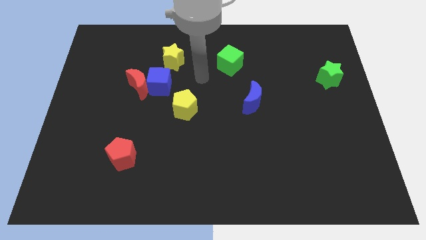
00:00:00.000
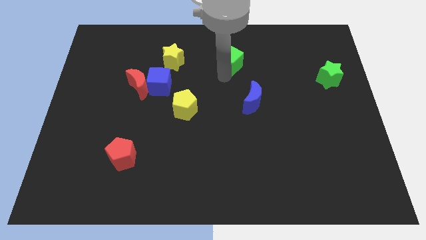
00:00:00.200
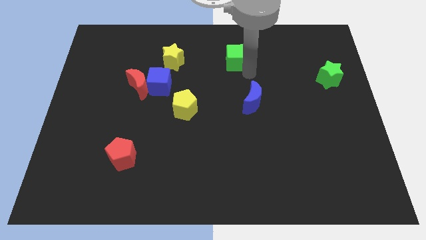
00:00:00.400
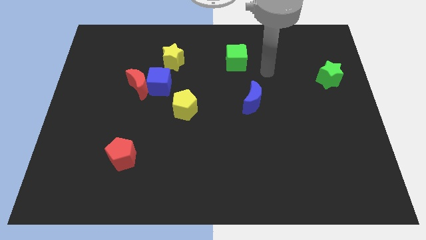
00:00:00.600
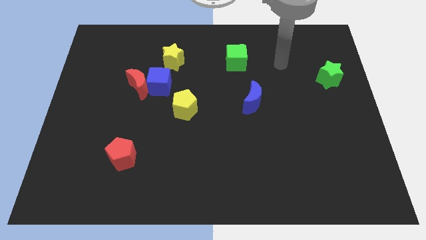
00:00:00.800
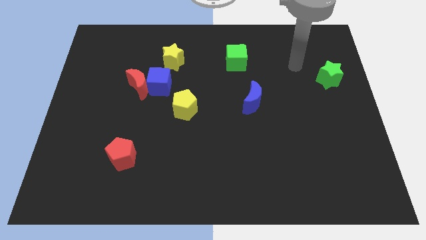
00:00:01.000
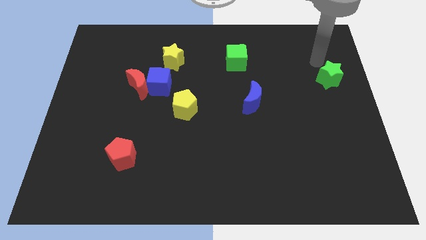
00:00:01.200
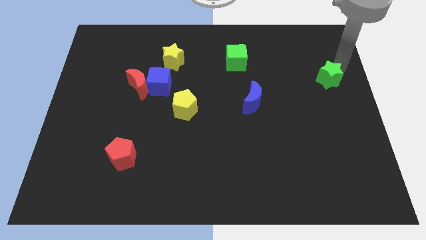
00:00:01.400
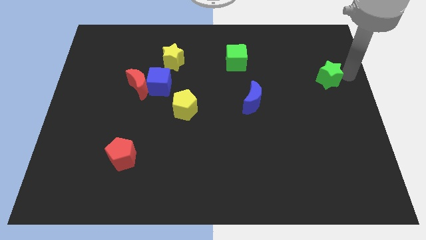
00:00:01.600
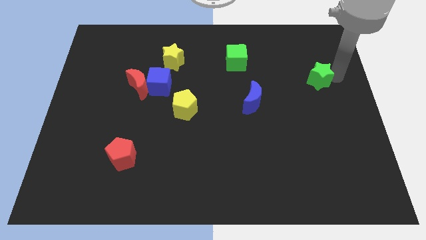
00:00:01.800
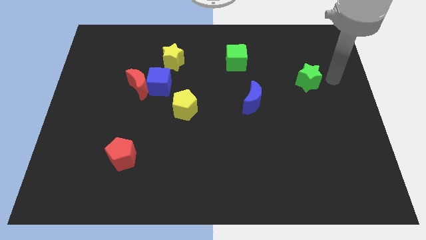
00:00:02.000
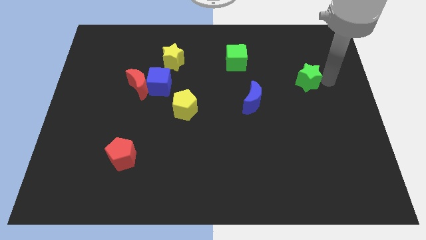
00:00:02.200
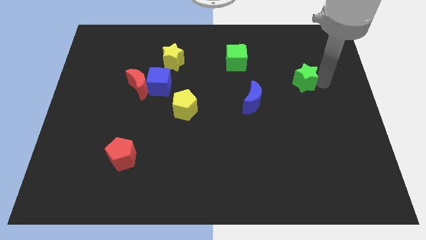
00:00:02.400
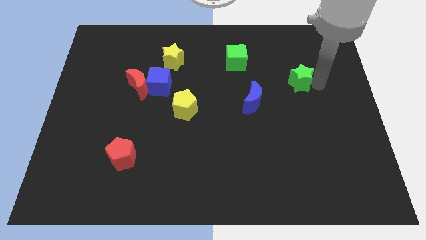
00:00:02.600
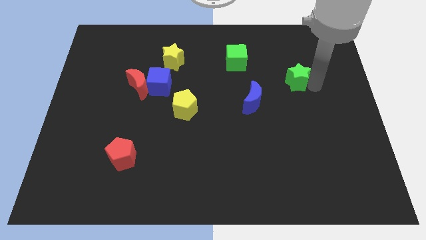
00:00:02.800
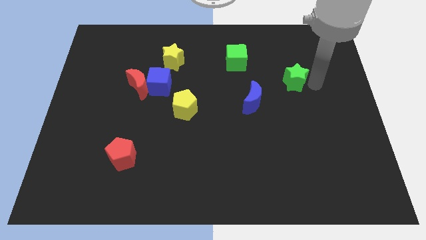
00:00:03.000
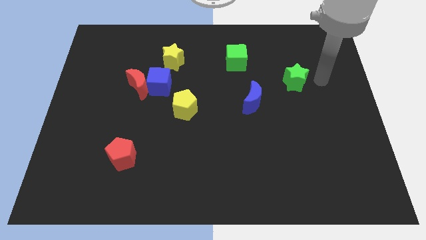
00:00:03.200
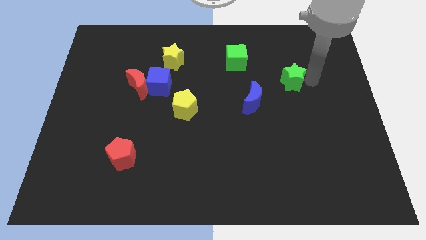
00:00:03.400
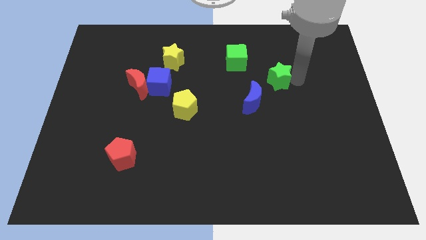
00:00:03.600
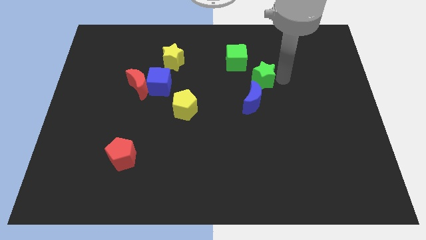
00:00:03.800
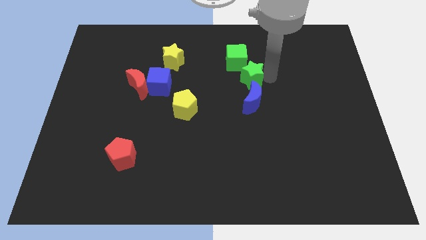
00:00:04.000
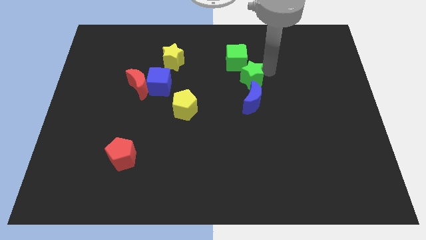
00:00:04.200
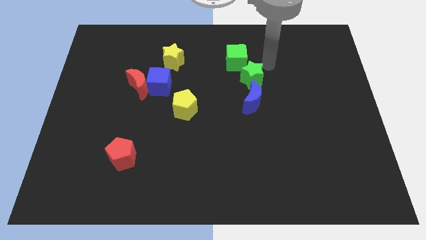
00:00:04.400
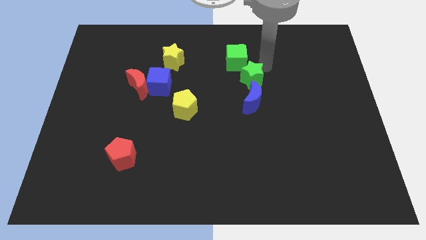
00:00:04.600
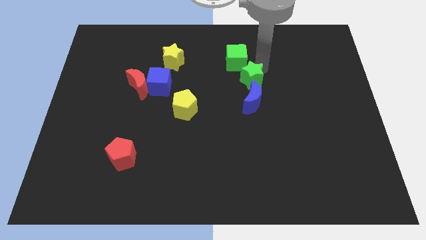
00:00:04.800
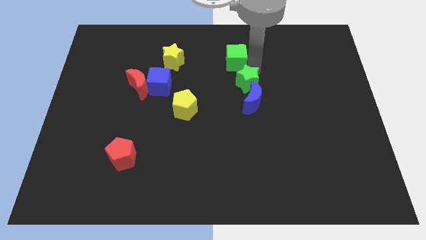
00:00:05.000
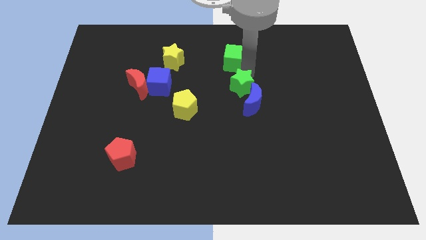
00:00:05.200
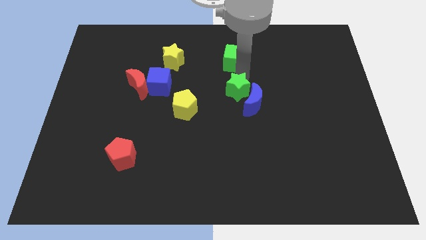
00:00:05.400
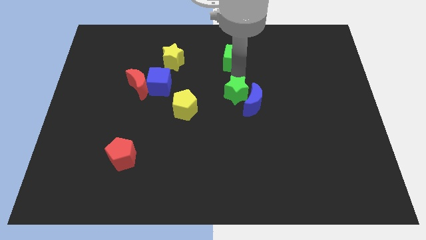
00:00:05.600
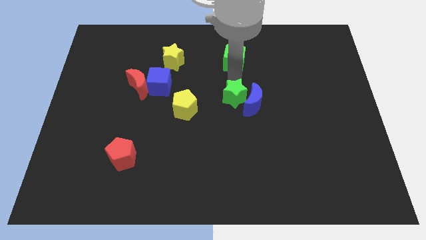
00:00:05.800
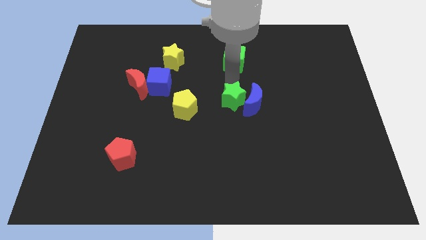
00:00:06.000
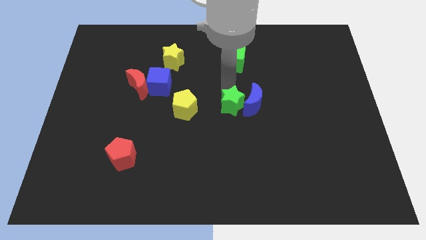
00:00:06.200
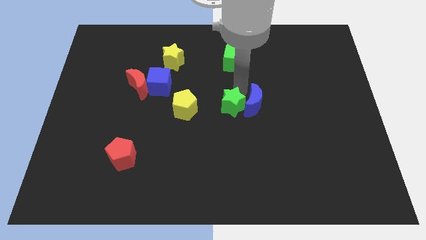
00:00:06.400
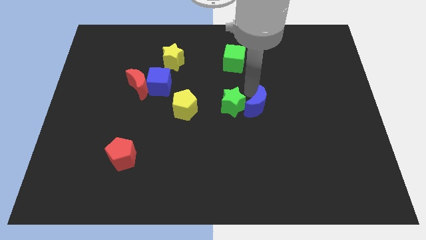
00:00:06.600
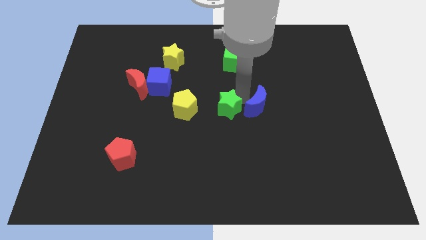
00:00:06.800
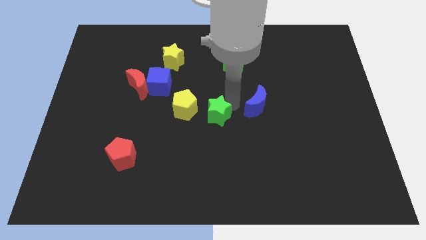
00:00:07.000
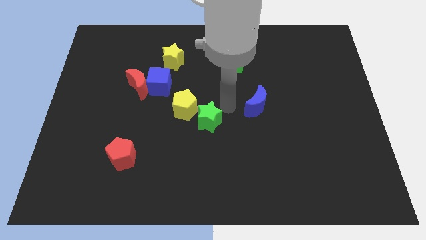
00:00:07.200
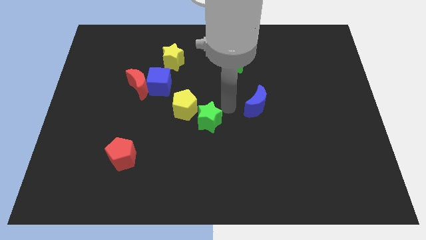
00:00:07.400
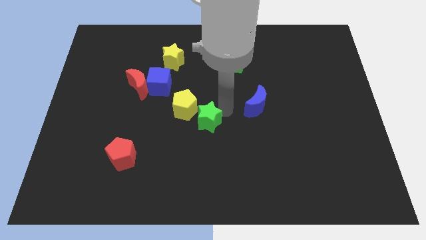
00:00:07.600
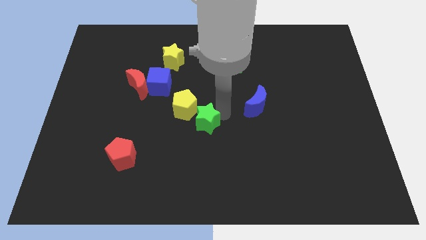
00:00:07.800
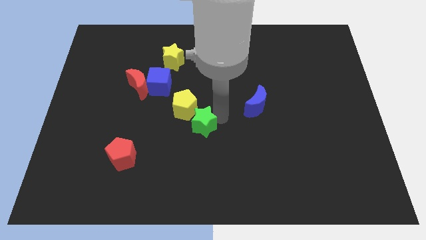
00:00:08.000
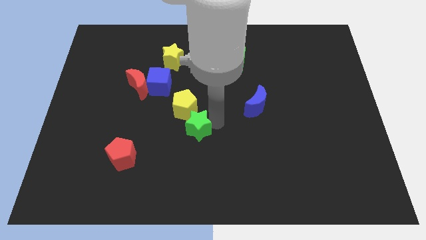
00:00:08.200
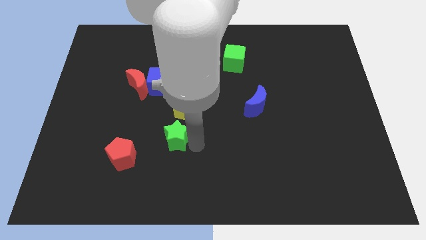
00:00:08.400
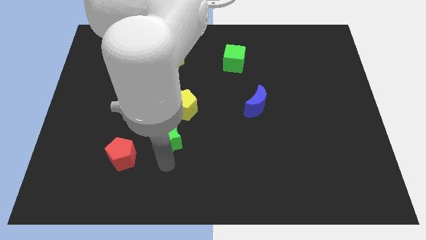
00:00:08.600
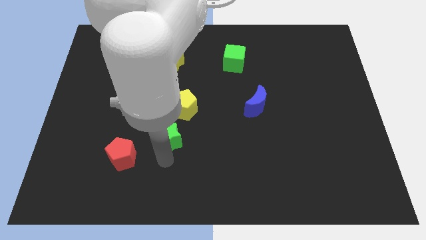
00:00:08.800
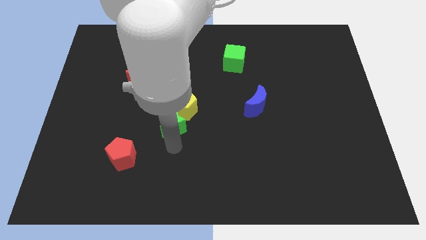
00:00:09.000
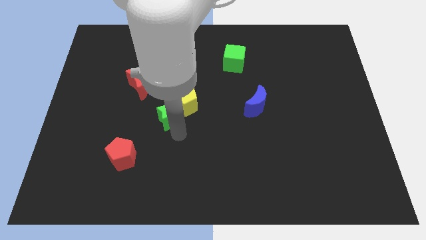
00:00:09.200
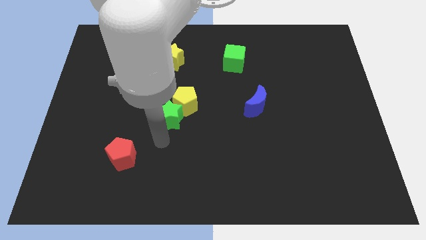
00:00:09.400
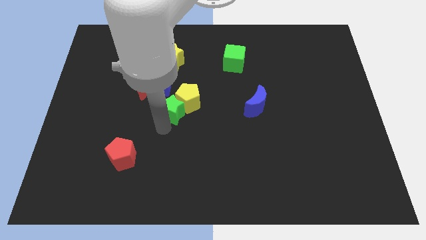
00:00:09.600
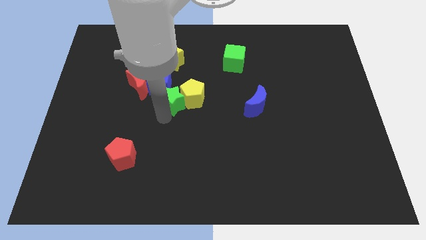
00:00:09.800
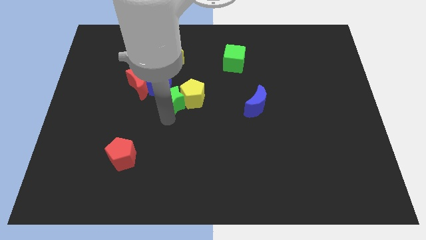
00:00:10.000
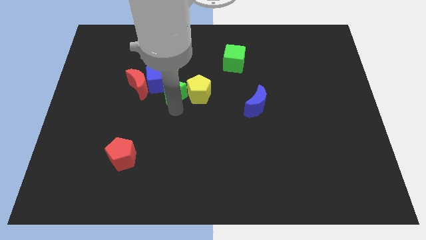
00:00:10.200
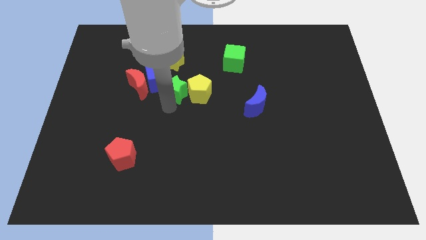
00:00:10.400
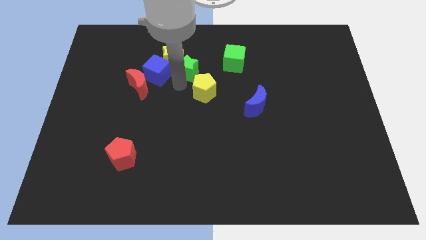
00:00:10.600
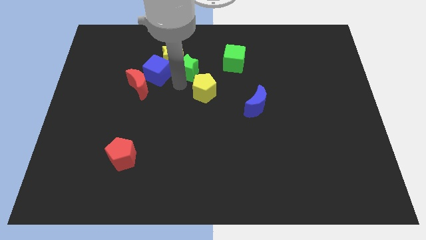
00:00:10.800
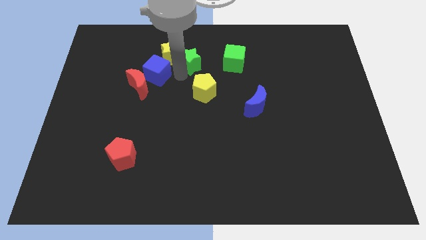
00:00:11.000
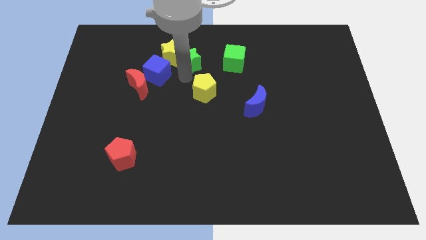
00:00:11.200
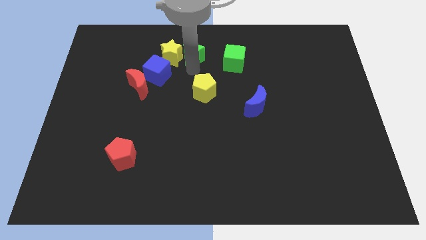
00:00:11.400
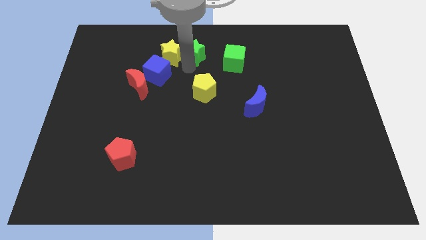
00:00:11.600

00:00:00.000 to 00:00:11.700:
push the green star to the towards your base

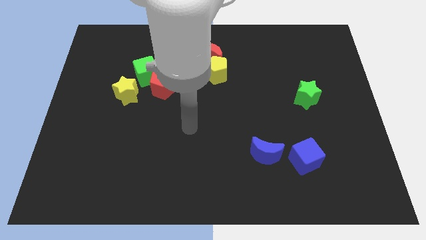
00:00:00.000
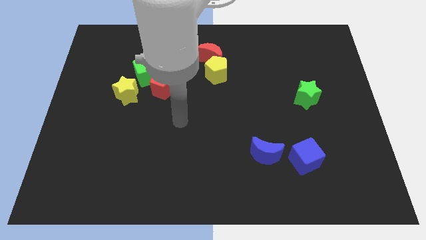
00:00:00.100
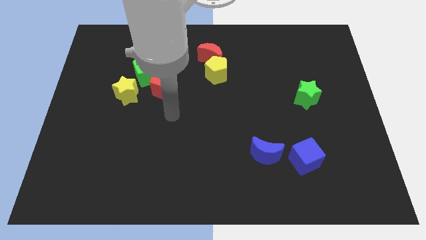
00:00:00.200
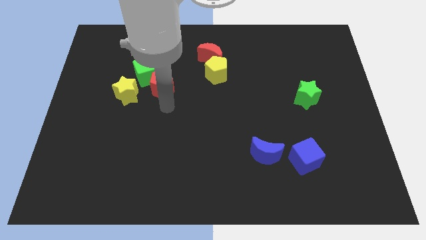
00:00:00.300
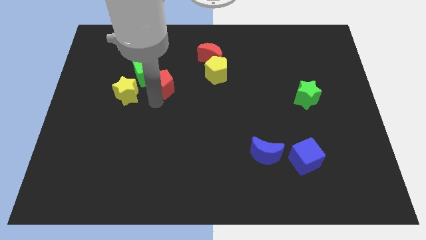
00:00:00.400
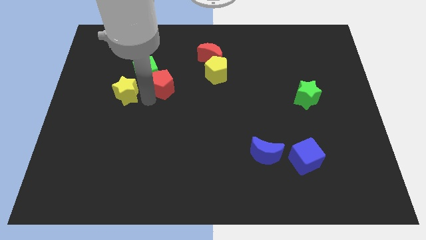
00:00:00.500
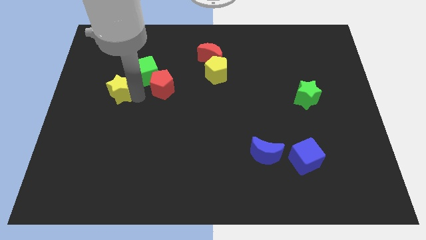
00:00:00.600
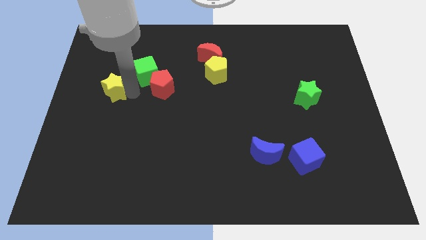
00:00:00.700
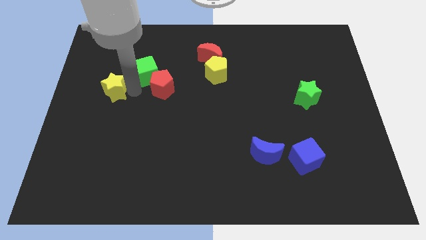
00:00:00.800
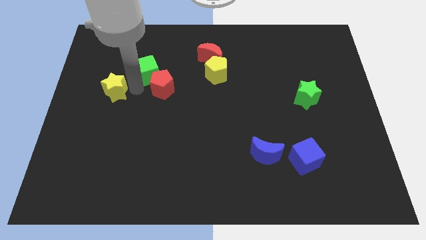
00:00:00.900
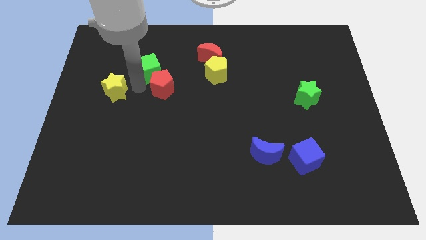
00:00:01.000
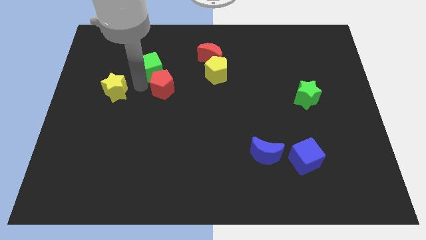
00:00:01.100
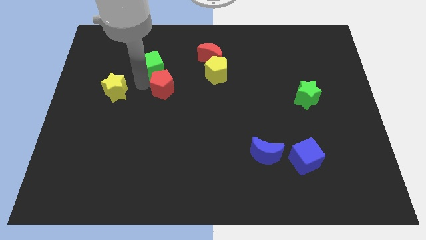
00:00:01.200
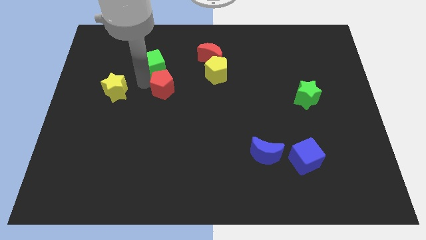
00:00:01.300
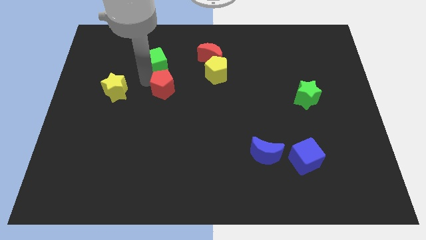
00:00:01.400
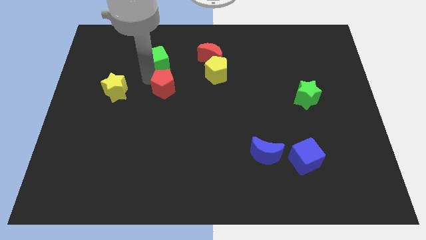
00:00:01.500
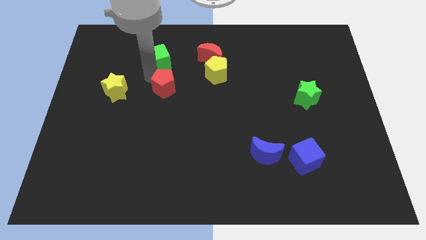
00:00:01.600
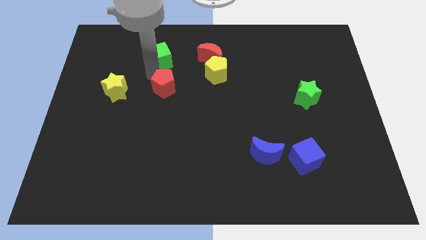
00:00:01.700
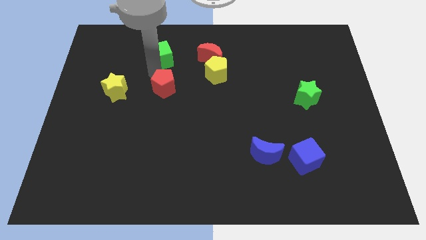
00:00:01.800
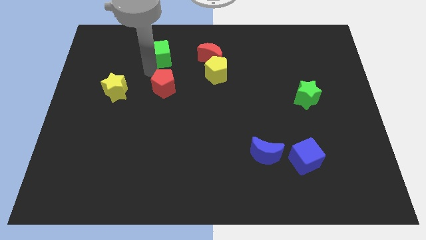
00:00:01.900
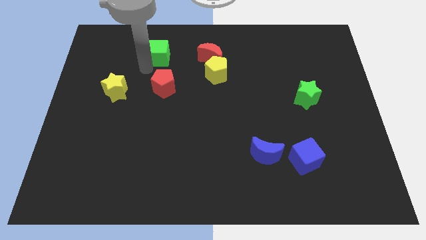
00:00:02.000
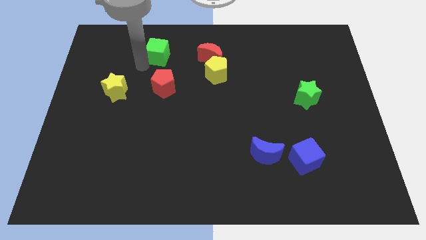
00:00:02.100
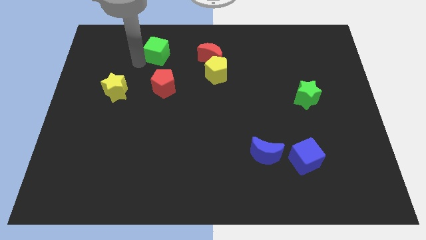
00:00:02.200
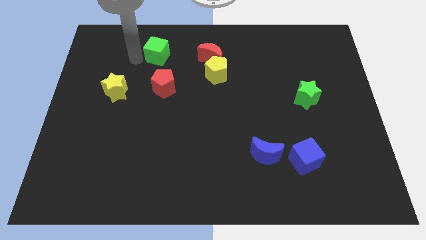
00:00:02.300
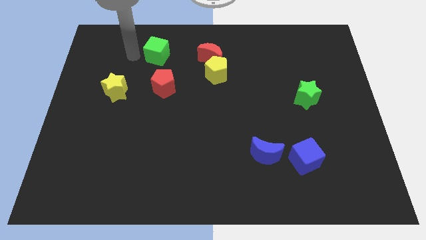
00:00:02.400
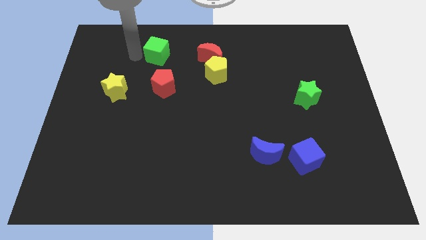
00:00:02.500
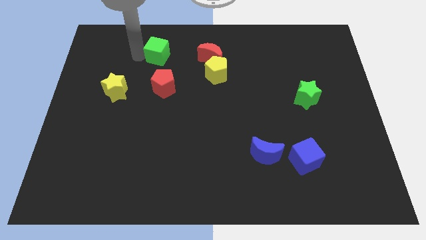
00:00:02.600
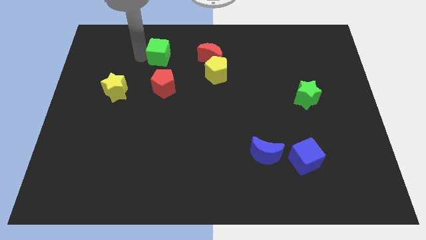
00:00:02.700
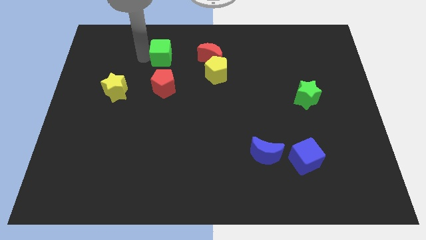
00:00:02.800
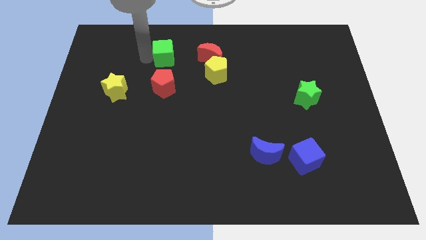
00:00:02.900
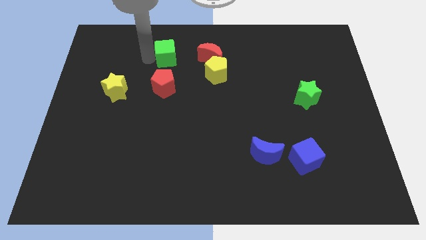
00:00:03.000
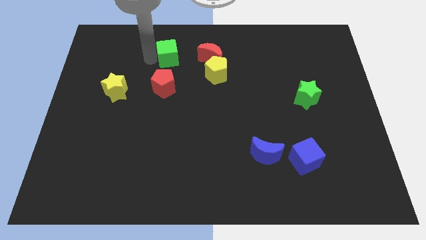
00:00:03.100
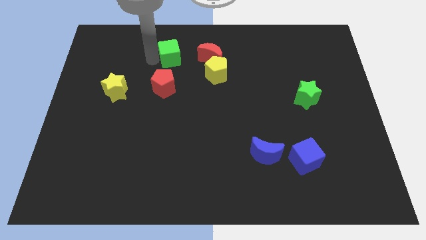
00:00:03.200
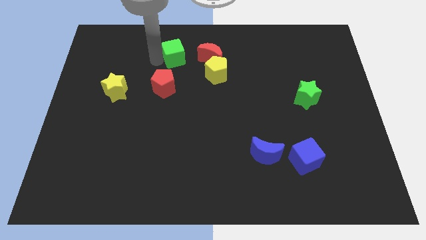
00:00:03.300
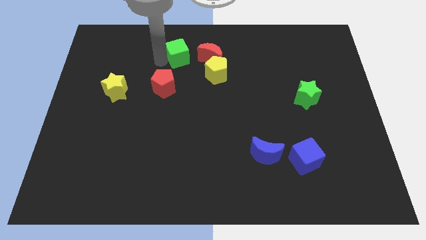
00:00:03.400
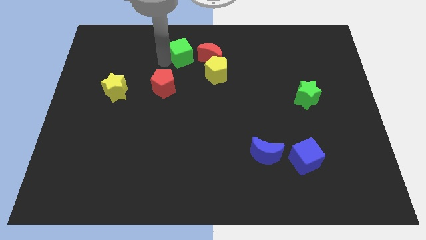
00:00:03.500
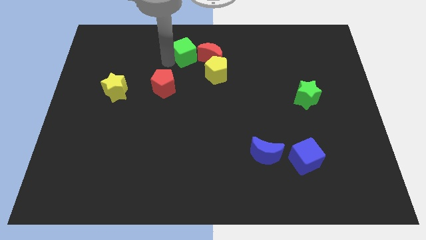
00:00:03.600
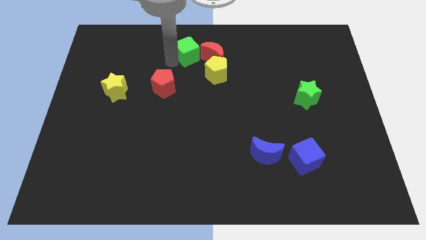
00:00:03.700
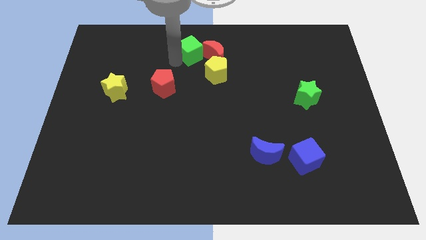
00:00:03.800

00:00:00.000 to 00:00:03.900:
move the green cube to the top
